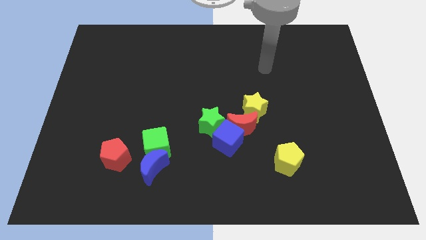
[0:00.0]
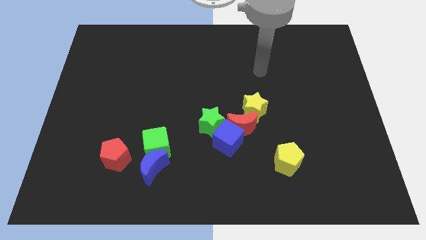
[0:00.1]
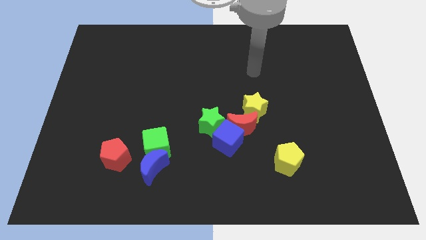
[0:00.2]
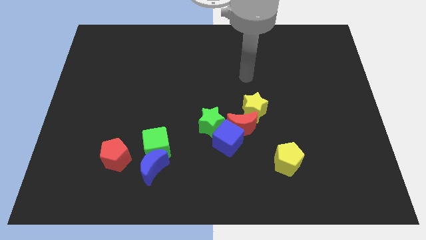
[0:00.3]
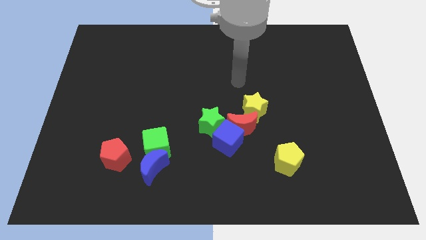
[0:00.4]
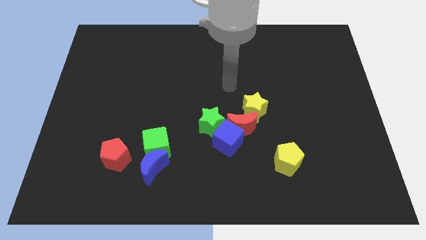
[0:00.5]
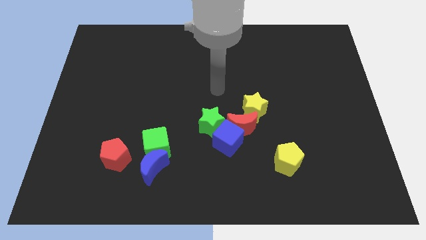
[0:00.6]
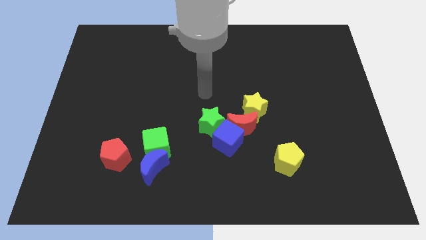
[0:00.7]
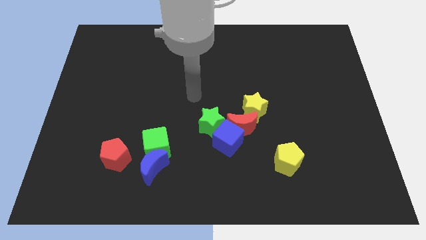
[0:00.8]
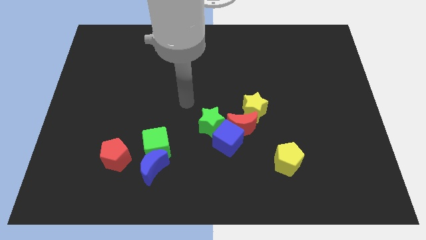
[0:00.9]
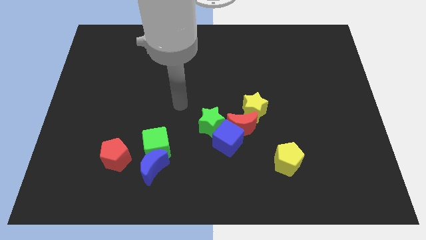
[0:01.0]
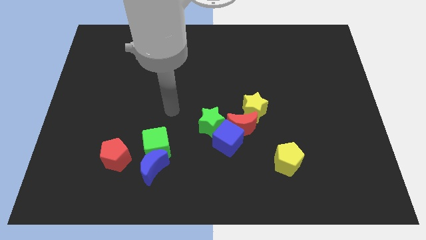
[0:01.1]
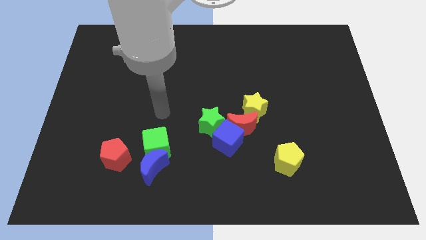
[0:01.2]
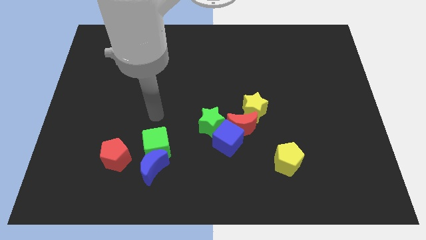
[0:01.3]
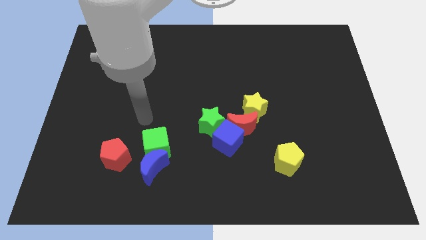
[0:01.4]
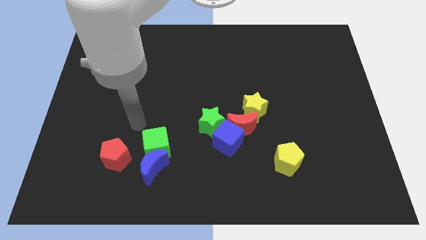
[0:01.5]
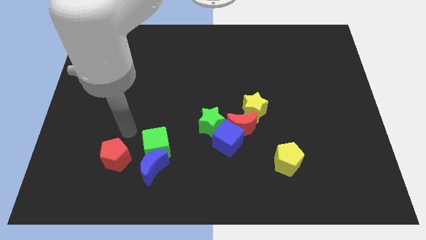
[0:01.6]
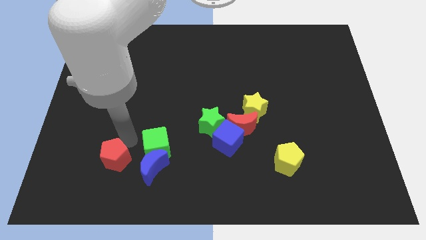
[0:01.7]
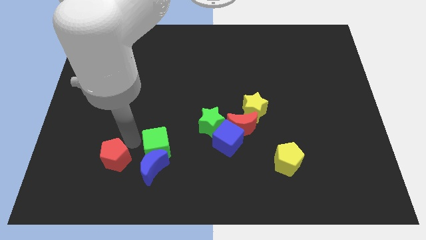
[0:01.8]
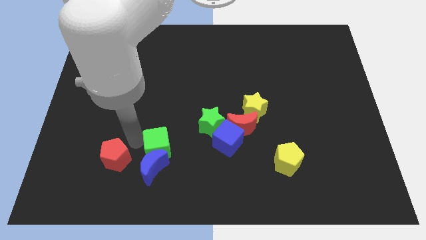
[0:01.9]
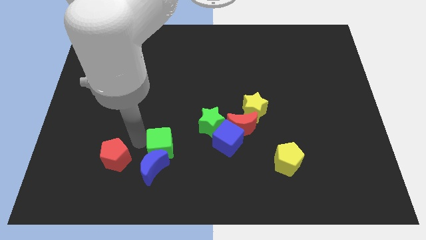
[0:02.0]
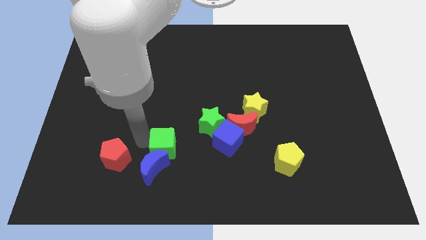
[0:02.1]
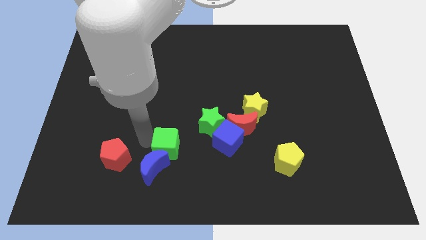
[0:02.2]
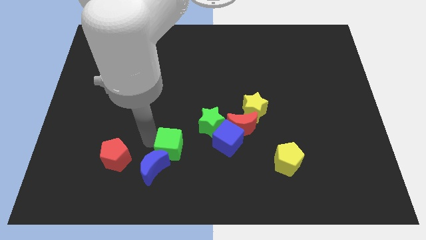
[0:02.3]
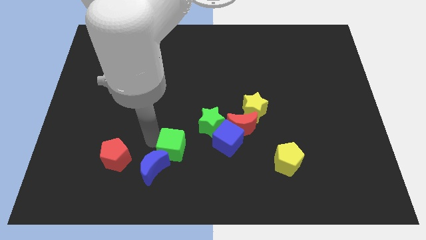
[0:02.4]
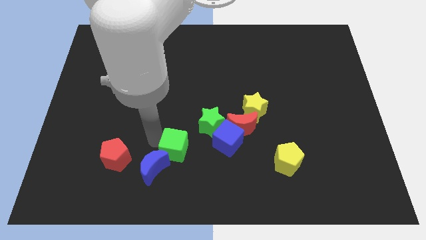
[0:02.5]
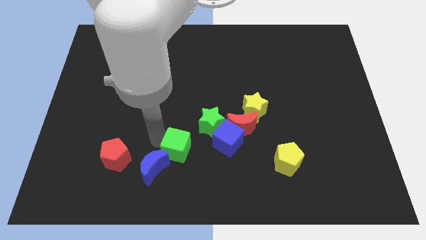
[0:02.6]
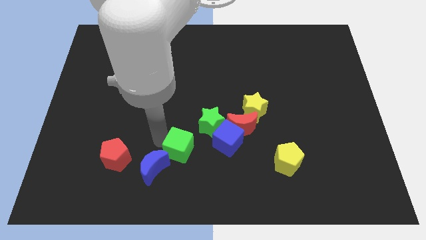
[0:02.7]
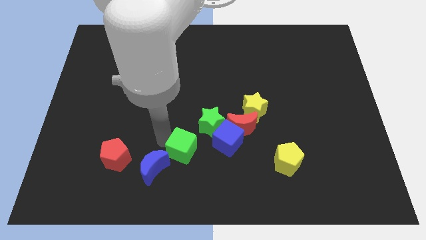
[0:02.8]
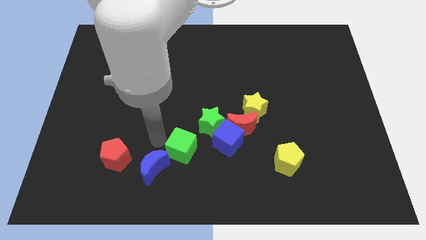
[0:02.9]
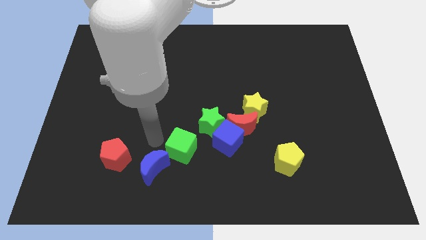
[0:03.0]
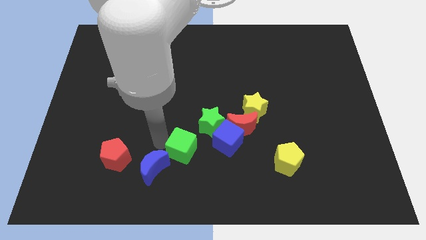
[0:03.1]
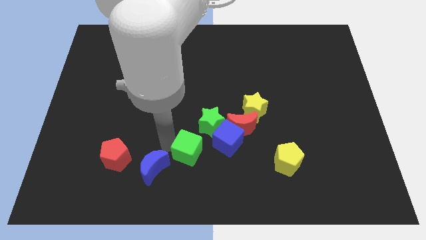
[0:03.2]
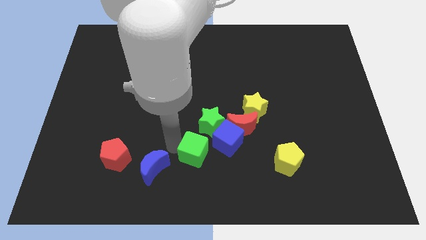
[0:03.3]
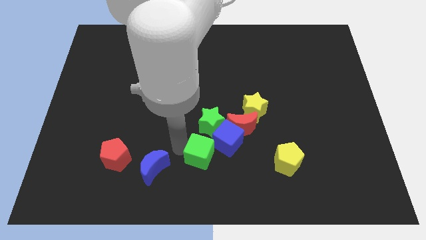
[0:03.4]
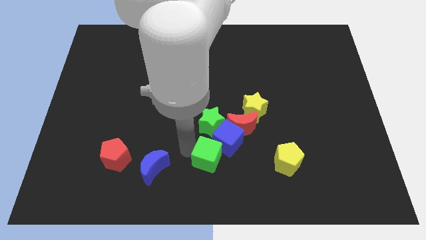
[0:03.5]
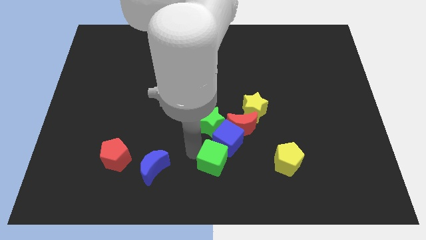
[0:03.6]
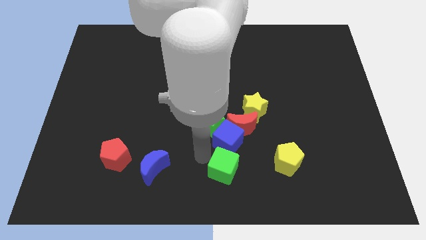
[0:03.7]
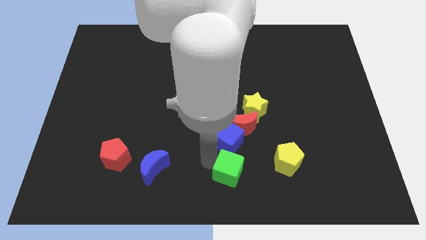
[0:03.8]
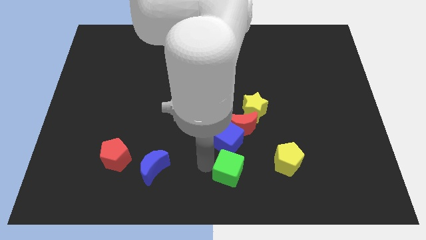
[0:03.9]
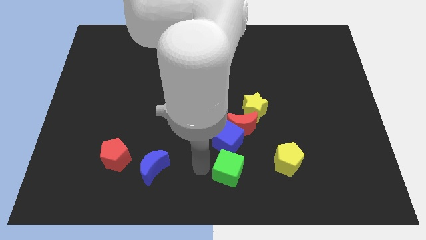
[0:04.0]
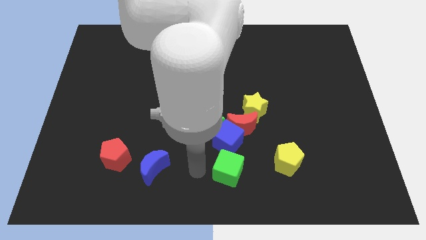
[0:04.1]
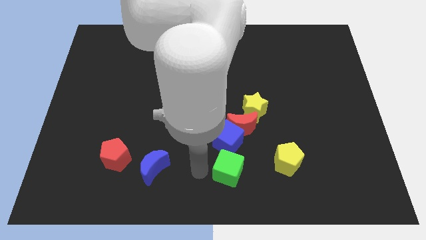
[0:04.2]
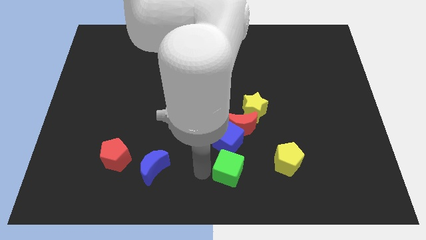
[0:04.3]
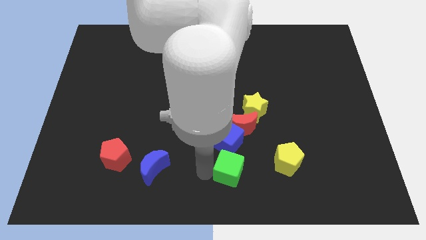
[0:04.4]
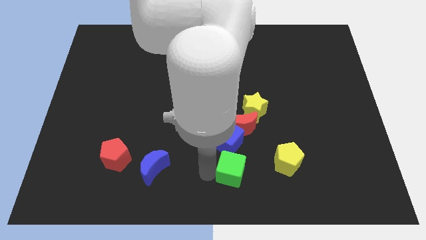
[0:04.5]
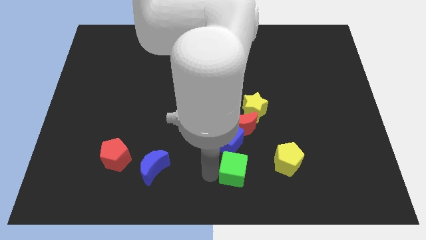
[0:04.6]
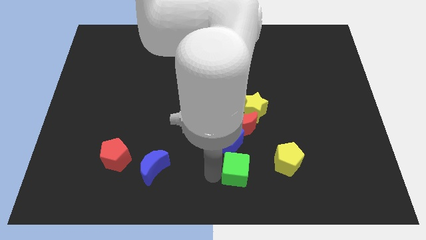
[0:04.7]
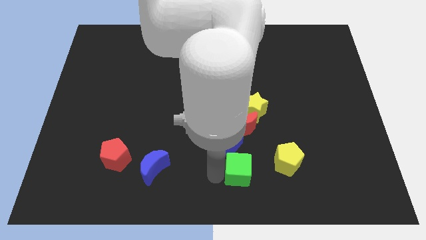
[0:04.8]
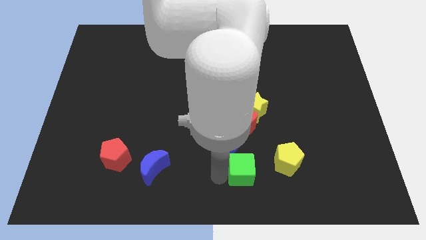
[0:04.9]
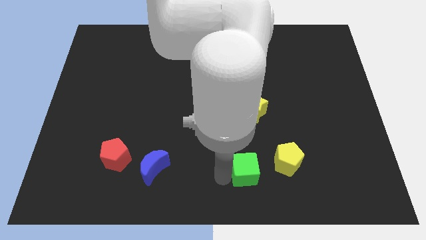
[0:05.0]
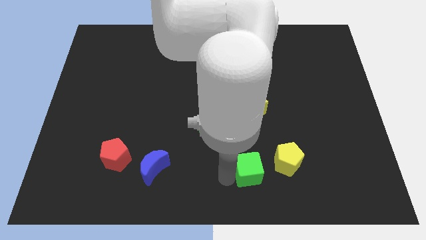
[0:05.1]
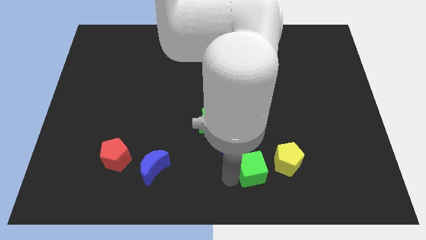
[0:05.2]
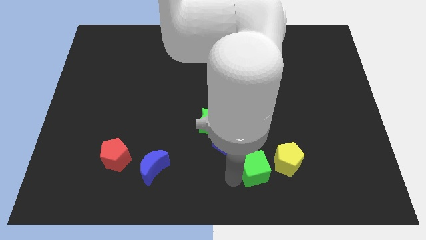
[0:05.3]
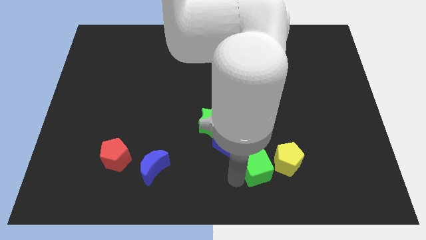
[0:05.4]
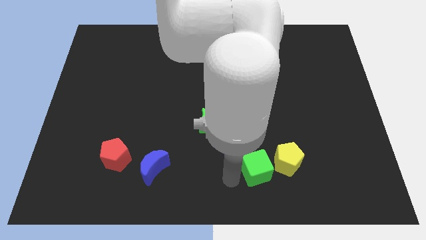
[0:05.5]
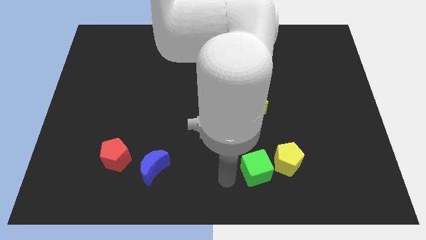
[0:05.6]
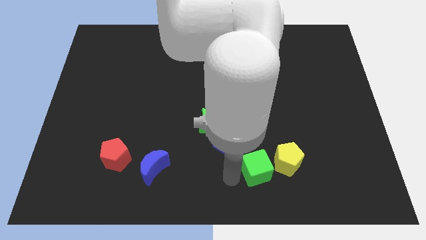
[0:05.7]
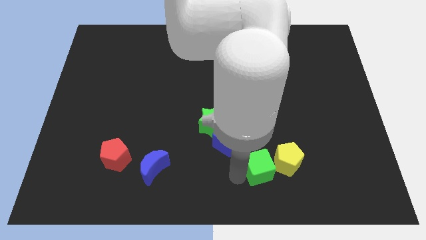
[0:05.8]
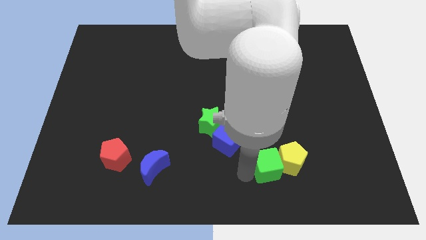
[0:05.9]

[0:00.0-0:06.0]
push the green cube to the yellow pentagon
